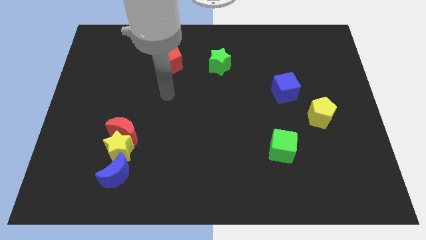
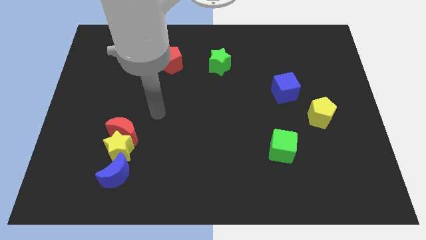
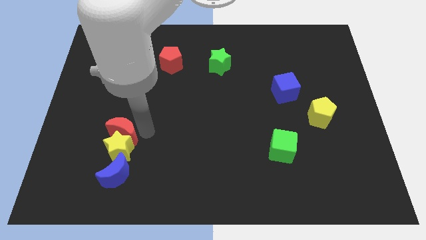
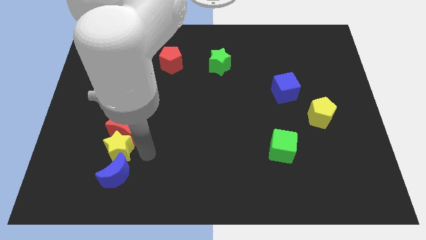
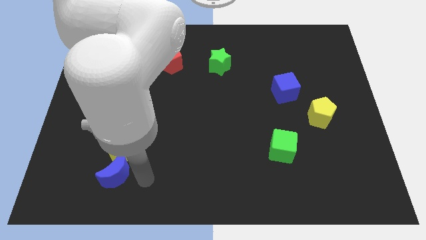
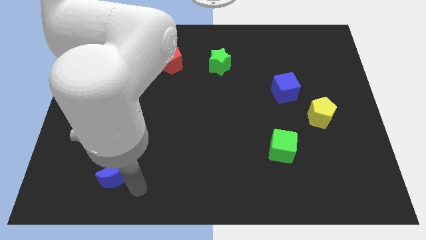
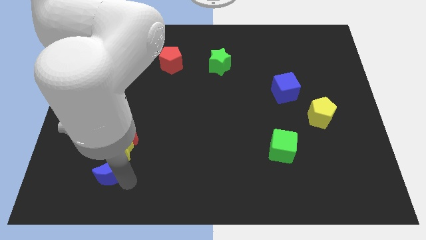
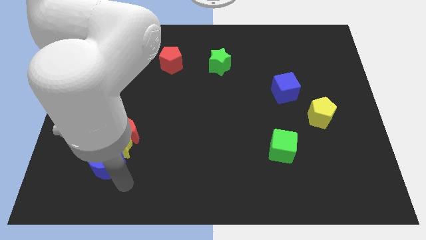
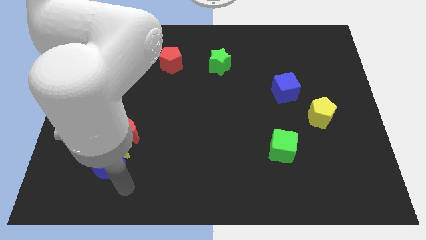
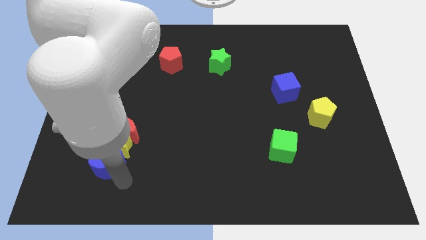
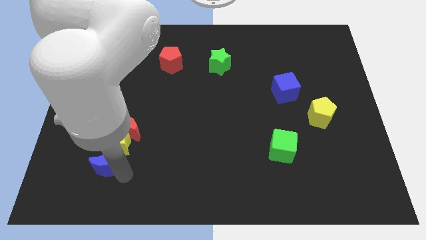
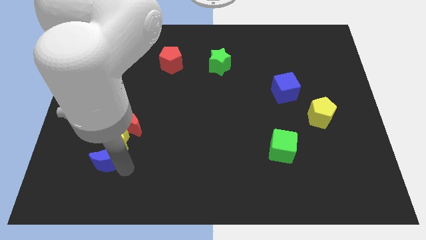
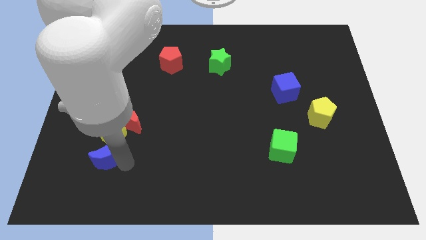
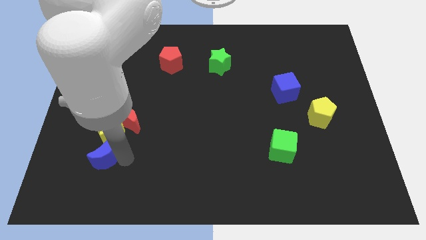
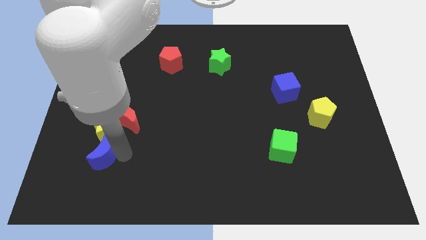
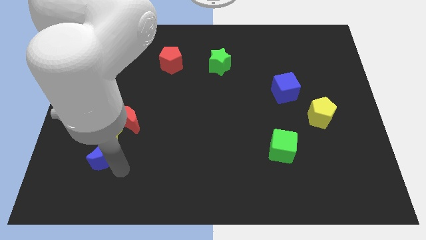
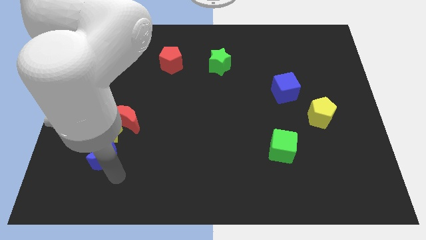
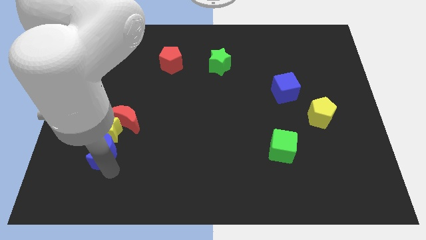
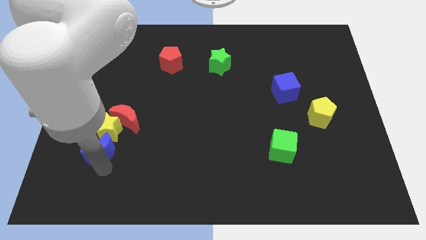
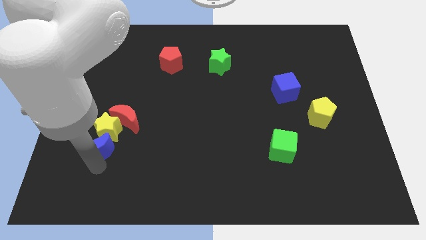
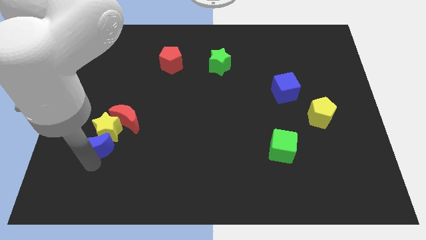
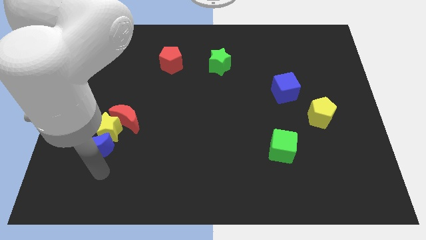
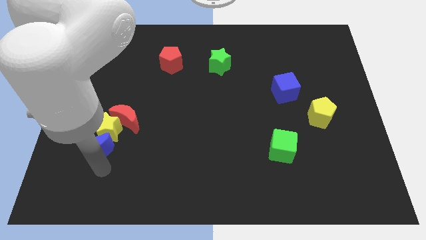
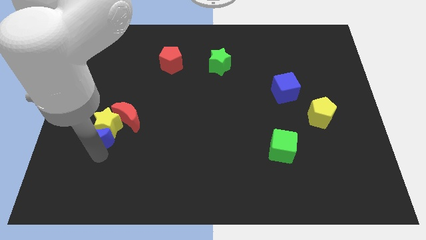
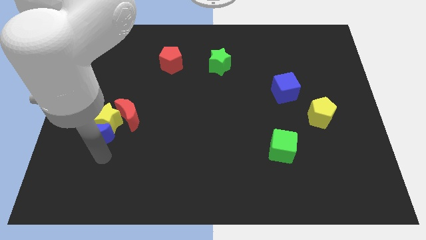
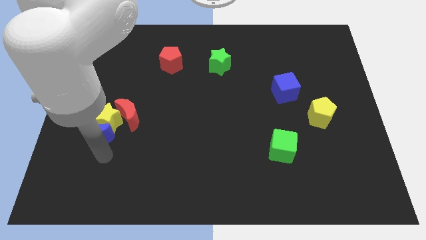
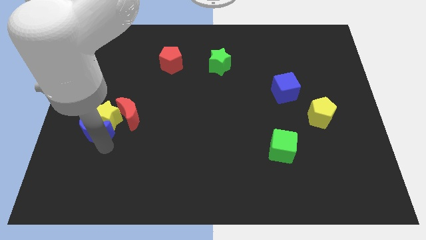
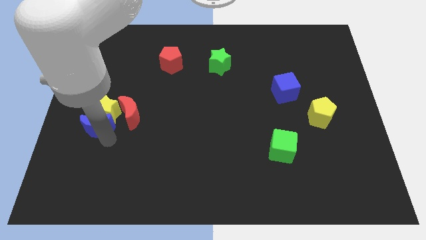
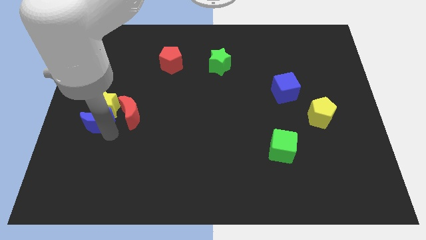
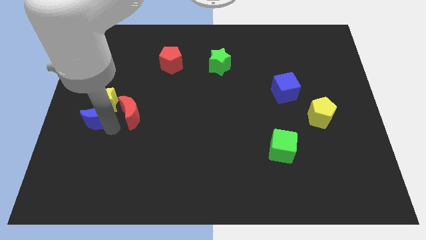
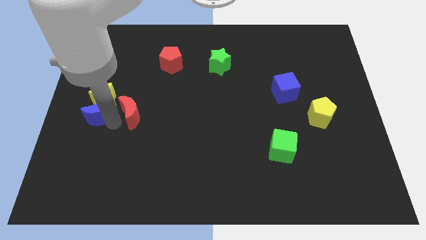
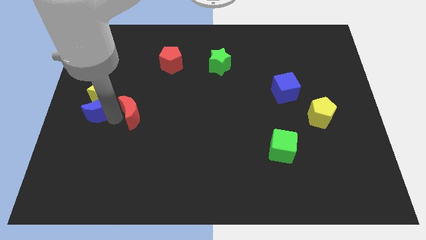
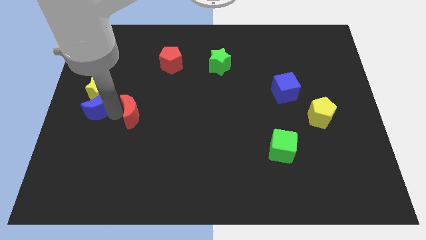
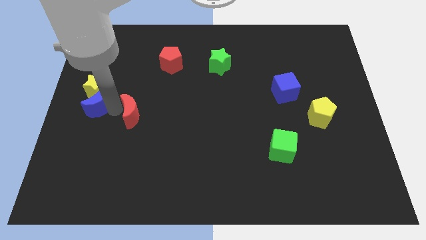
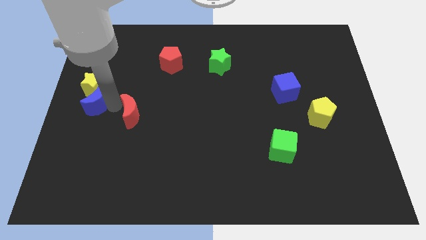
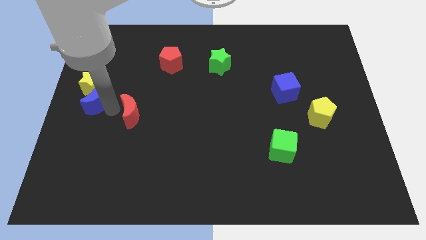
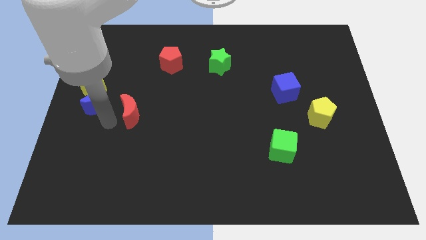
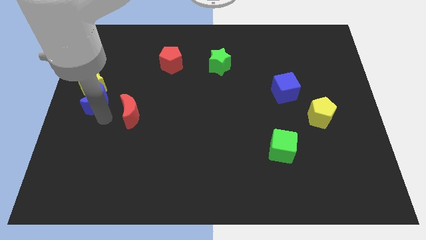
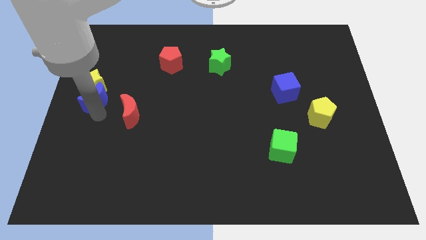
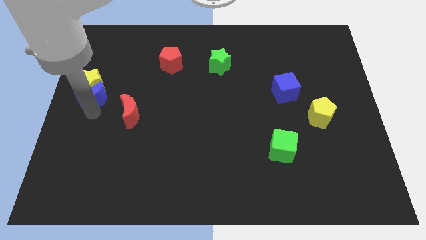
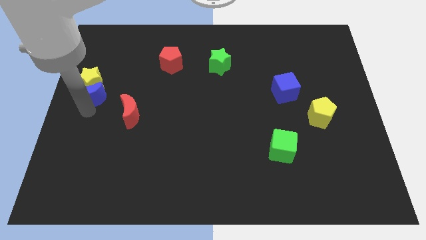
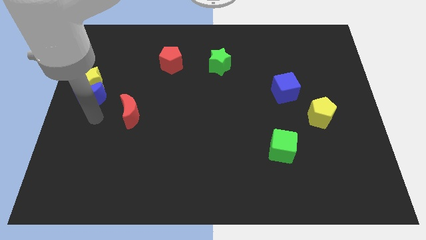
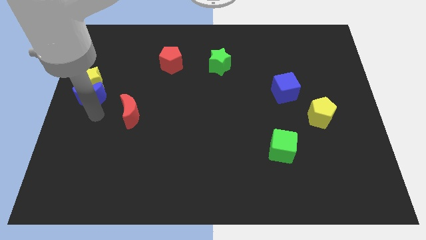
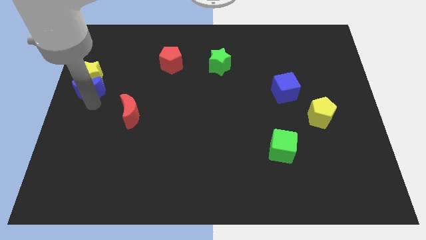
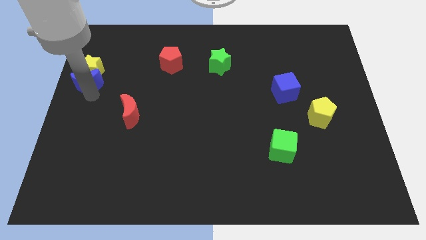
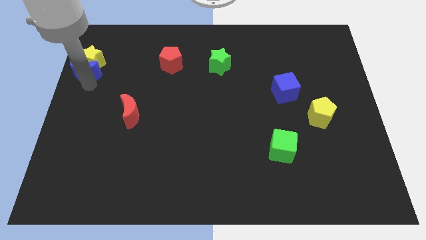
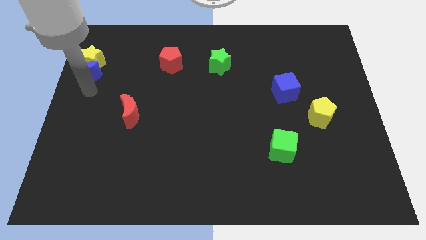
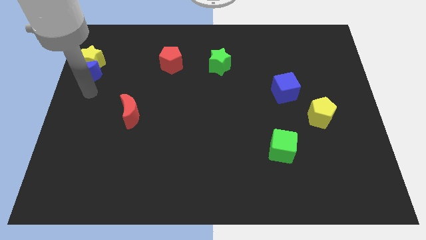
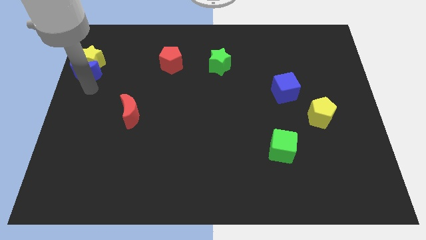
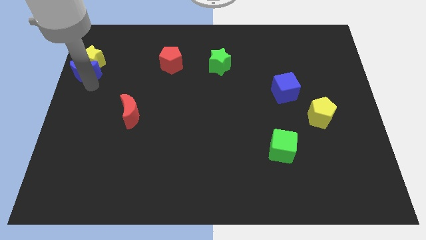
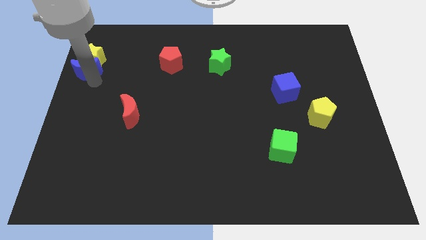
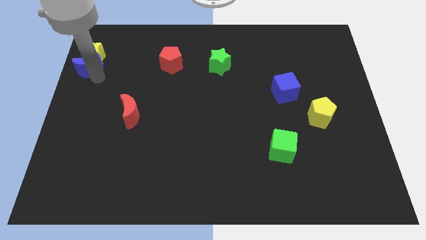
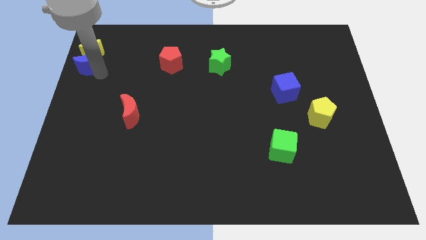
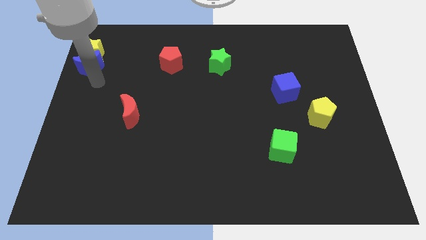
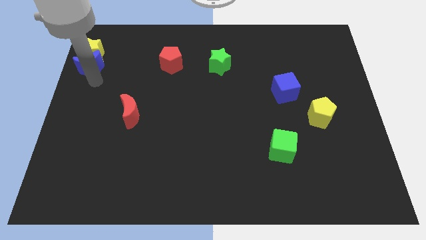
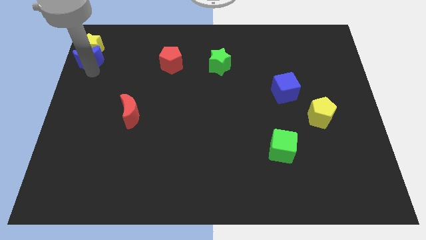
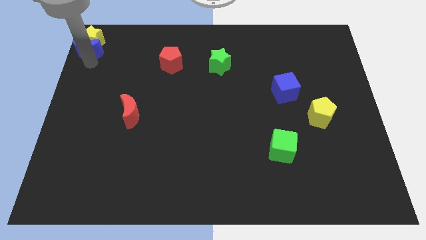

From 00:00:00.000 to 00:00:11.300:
move the blue moon to the top left

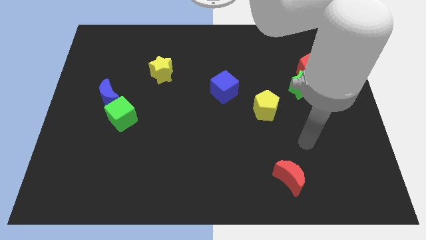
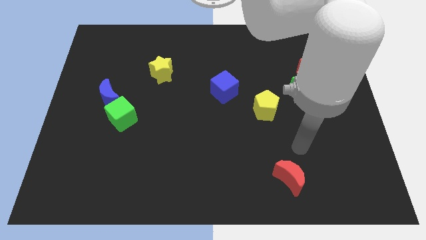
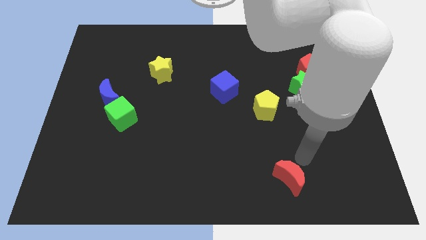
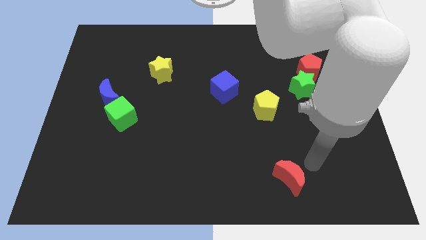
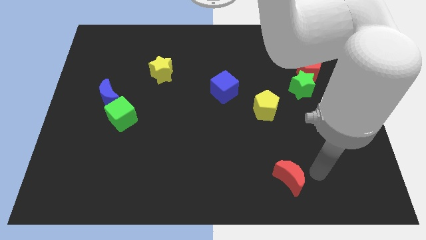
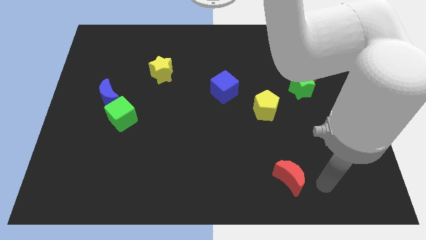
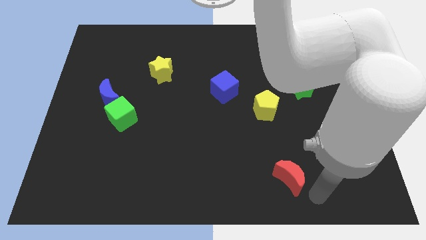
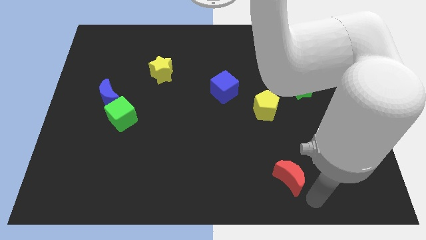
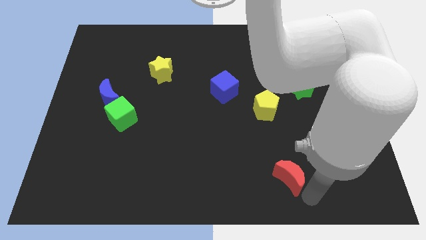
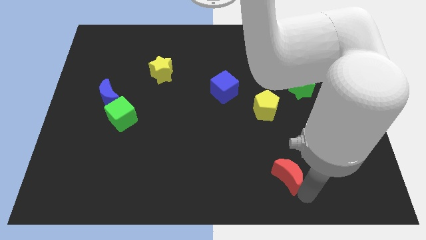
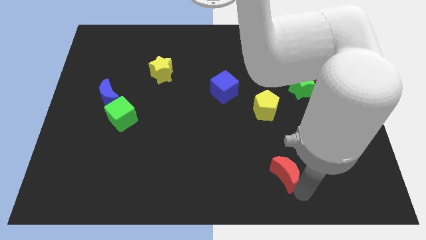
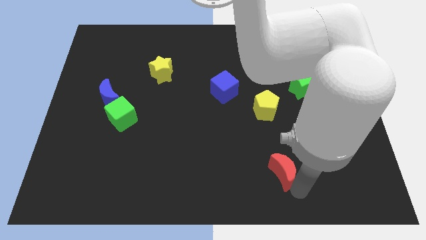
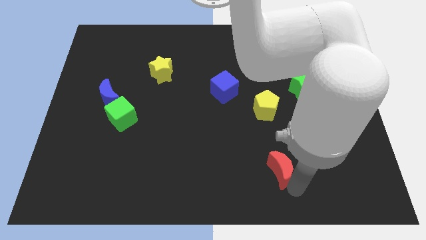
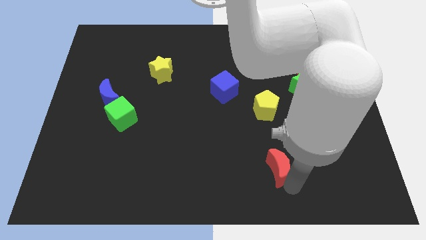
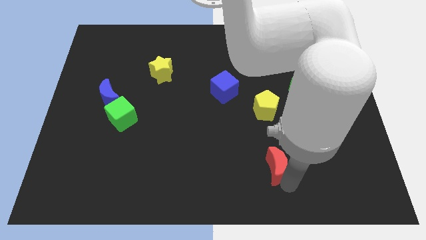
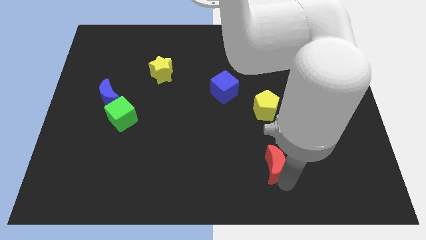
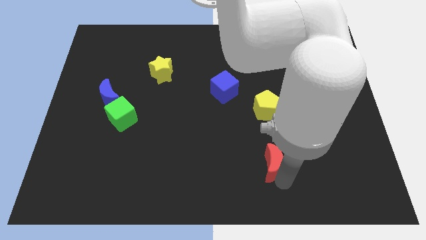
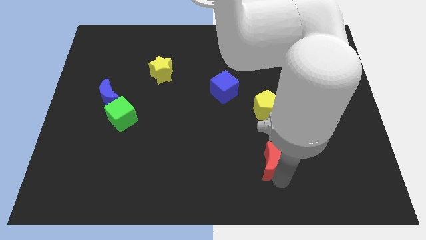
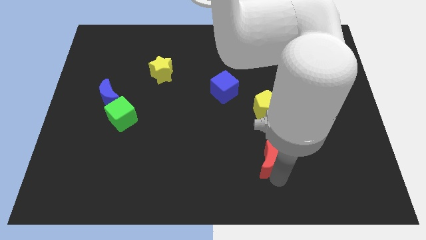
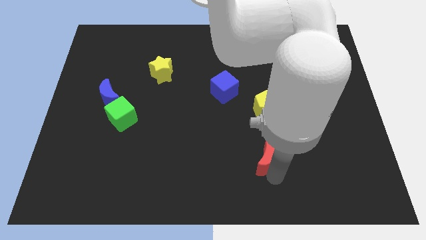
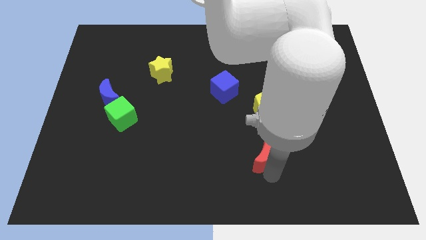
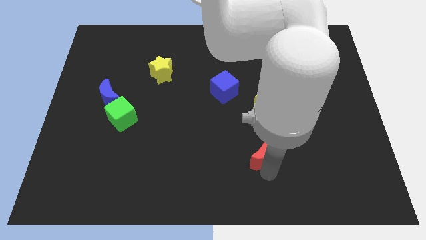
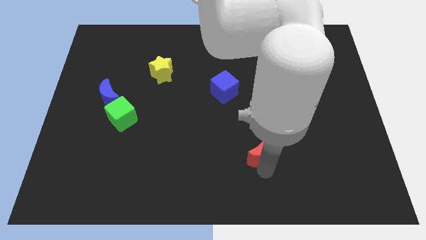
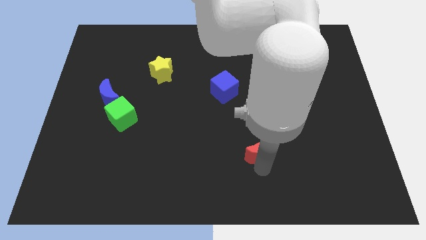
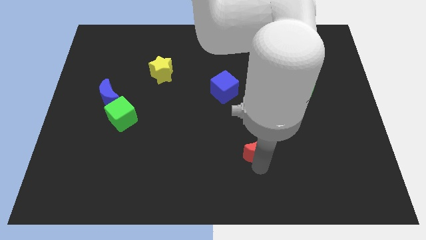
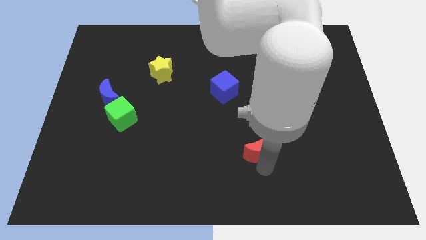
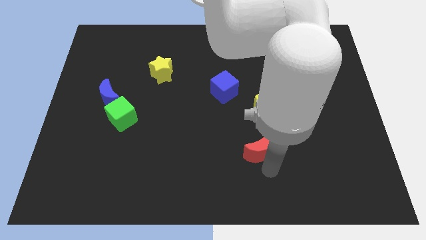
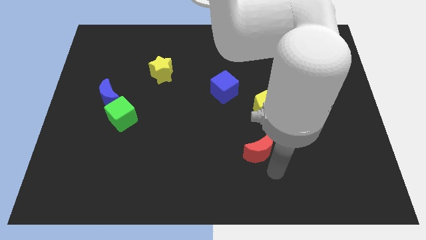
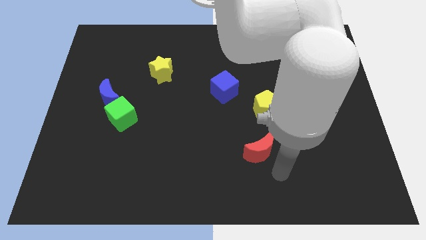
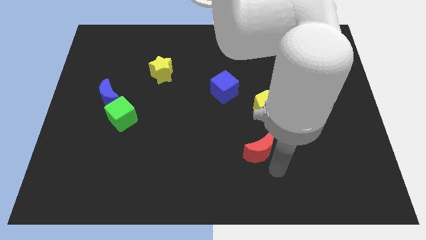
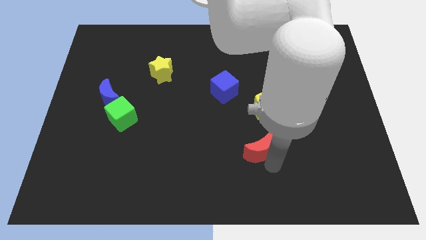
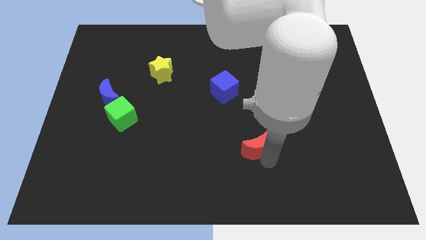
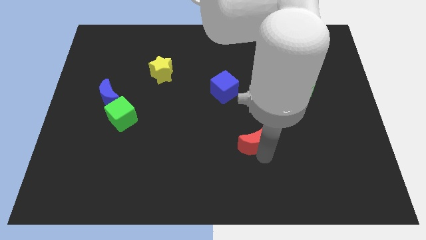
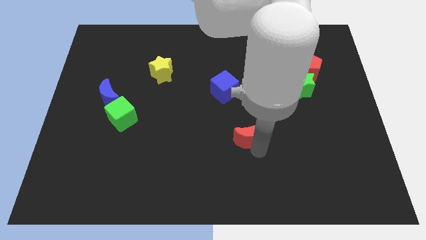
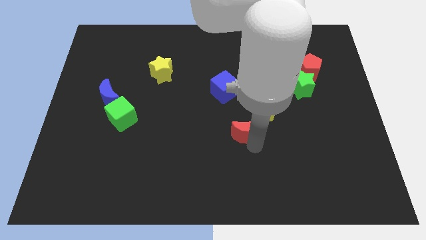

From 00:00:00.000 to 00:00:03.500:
slide the red moon to the middle
